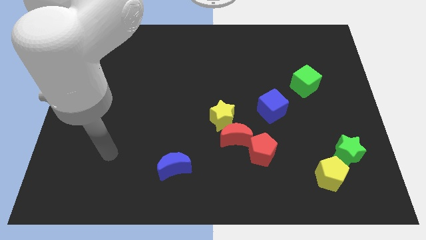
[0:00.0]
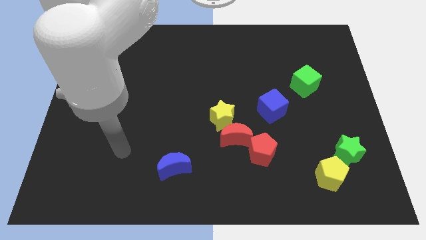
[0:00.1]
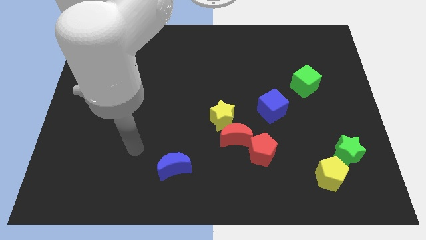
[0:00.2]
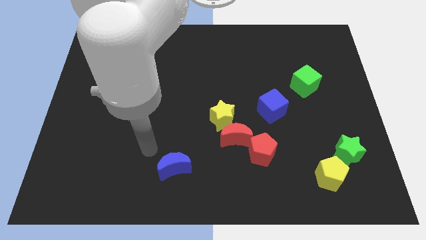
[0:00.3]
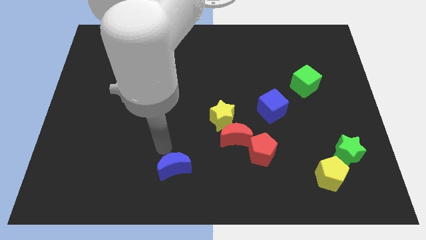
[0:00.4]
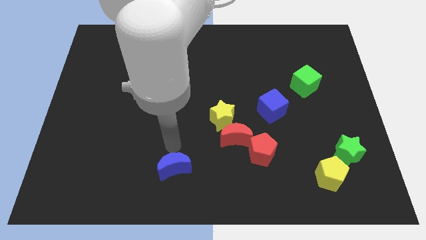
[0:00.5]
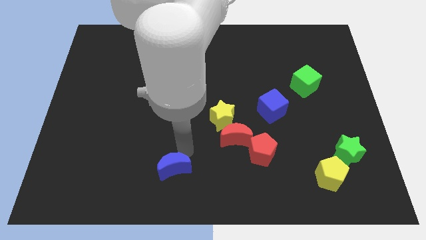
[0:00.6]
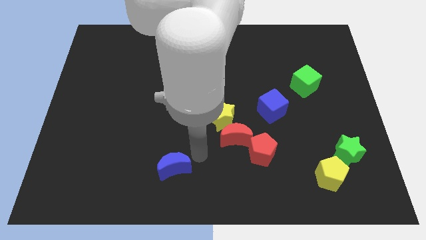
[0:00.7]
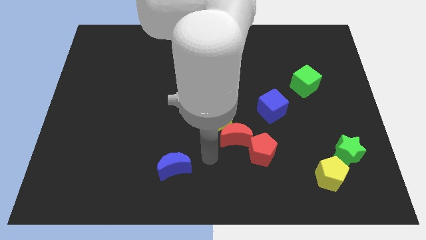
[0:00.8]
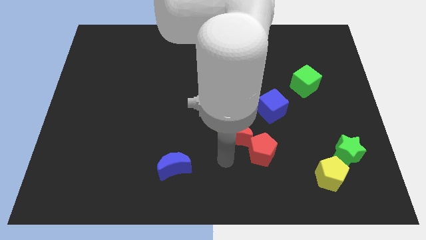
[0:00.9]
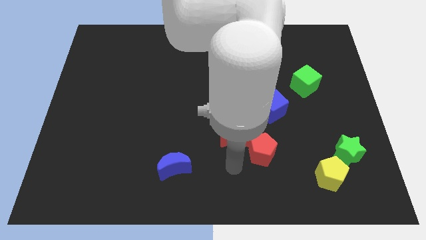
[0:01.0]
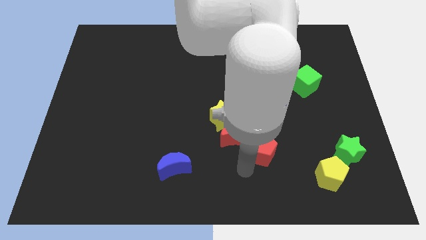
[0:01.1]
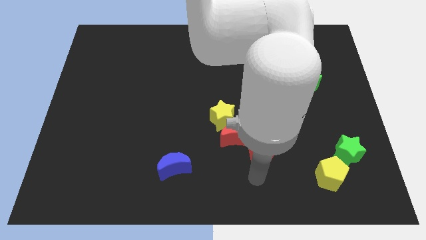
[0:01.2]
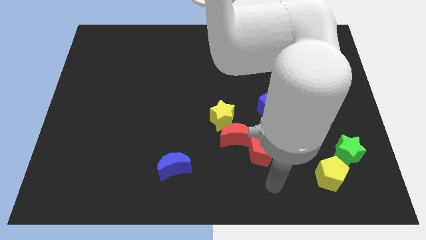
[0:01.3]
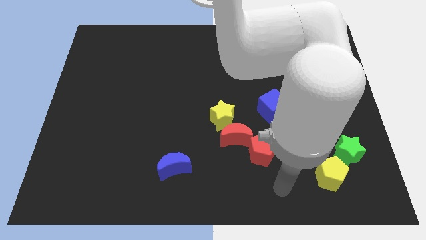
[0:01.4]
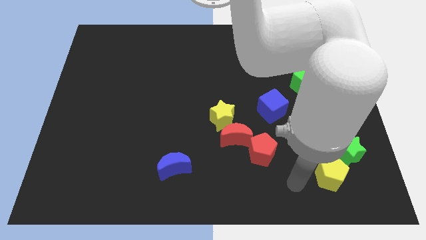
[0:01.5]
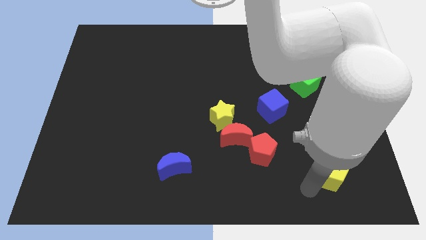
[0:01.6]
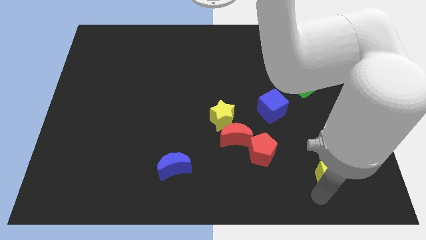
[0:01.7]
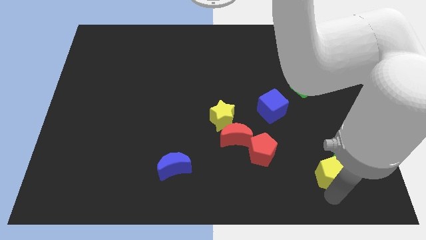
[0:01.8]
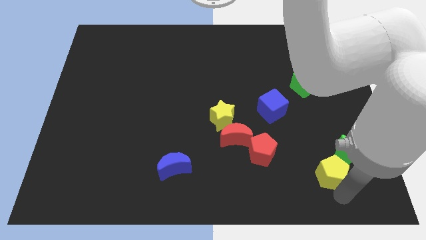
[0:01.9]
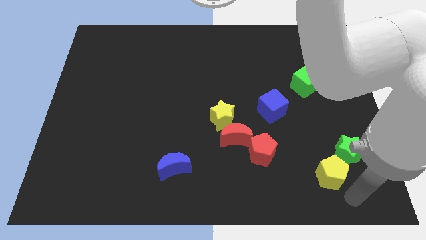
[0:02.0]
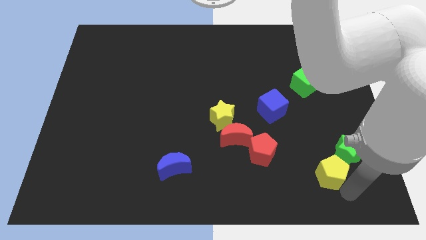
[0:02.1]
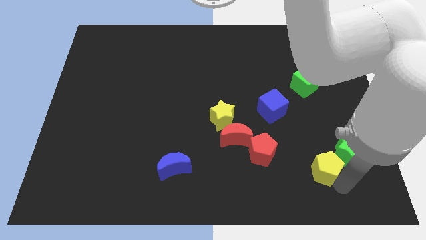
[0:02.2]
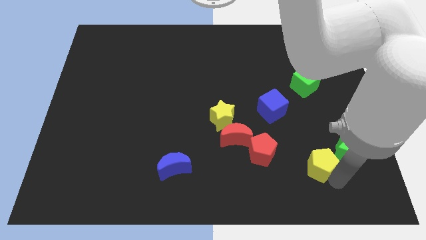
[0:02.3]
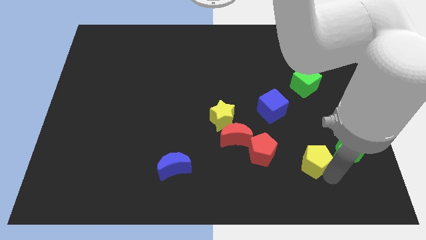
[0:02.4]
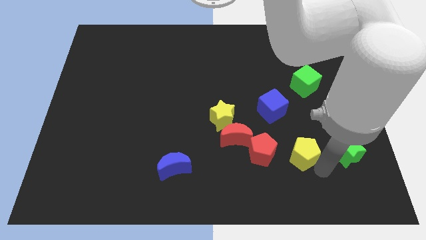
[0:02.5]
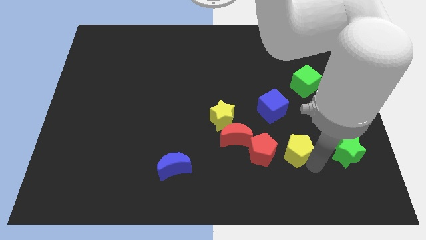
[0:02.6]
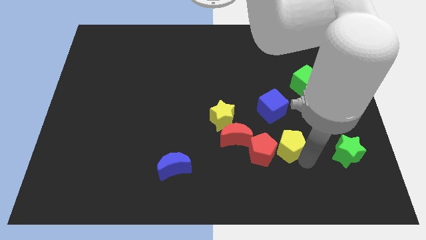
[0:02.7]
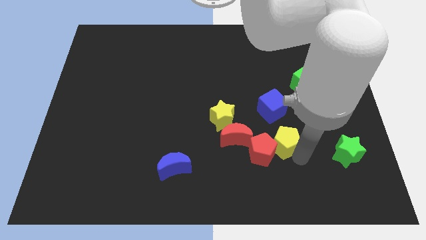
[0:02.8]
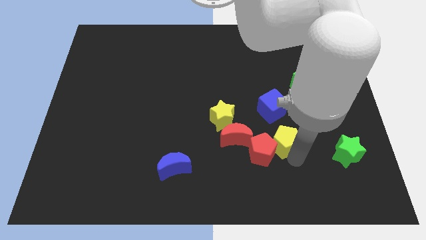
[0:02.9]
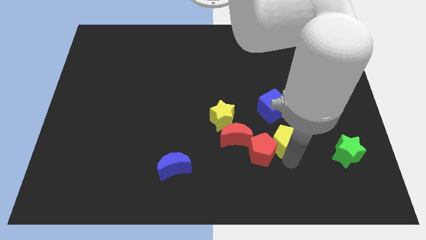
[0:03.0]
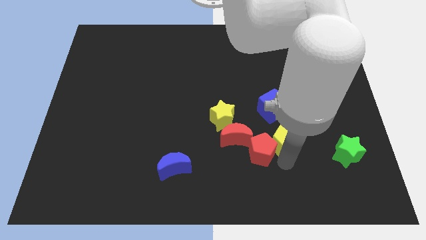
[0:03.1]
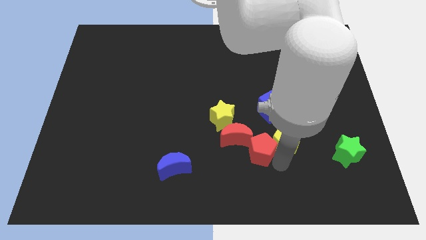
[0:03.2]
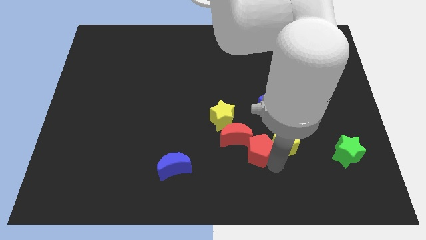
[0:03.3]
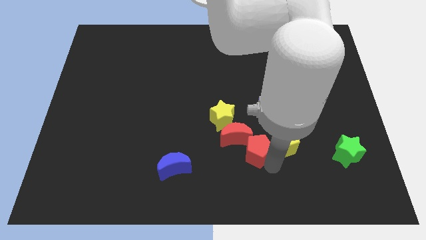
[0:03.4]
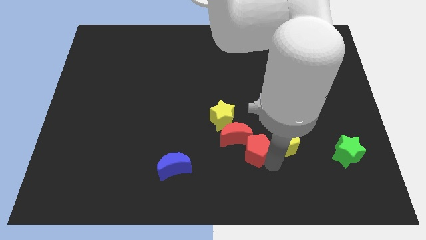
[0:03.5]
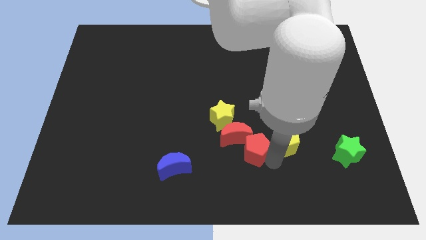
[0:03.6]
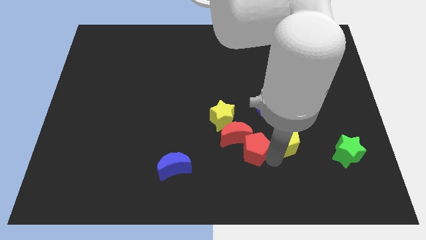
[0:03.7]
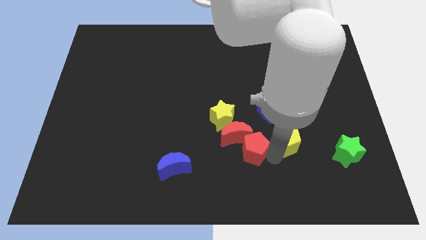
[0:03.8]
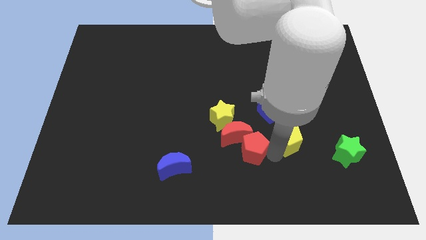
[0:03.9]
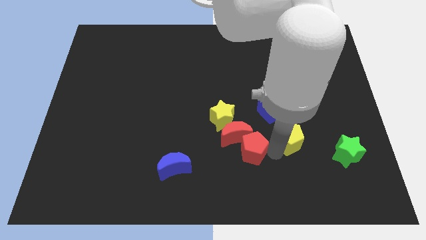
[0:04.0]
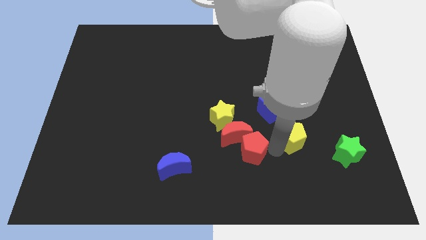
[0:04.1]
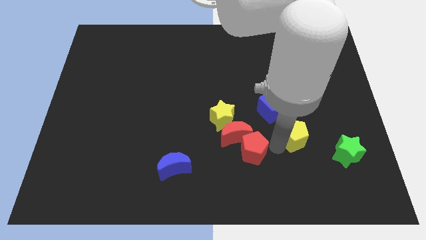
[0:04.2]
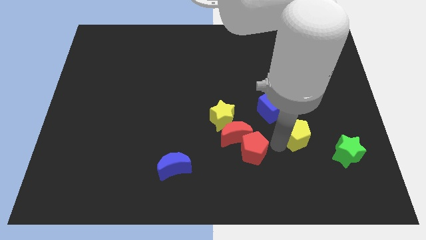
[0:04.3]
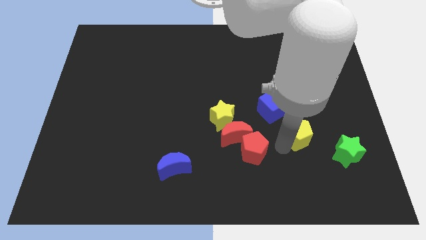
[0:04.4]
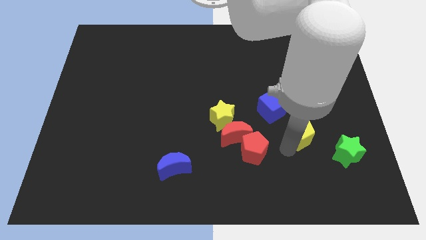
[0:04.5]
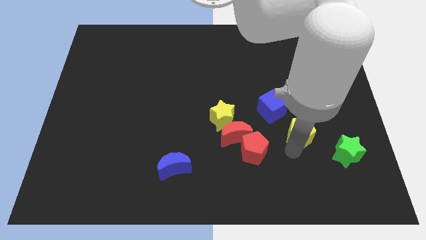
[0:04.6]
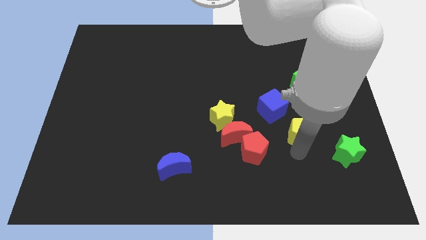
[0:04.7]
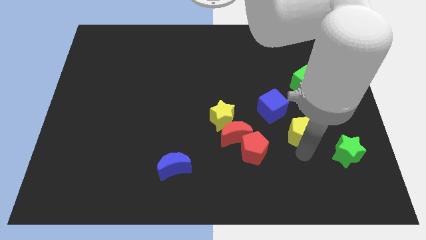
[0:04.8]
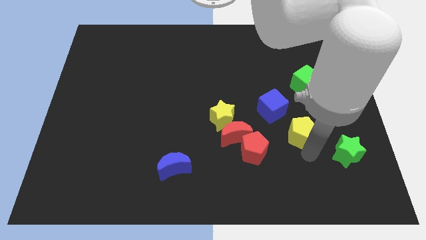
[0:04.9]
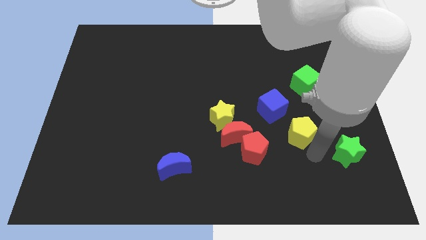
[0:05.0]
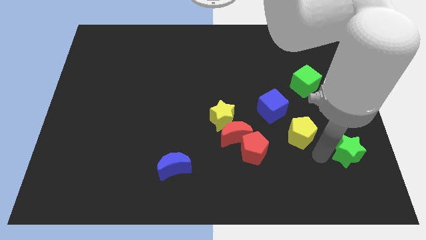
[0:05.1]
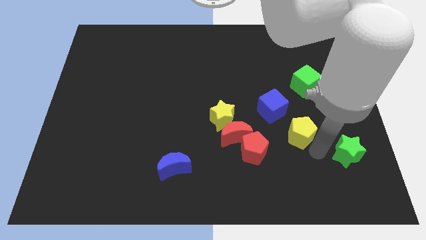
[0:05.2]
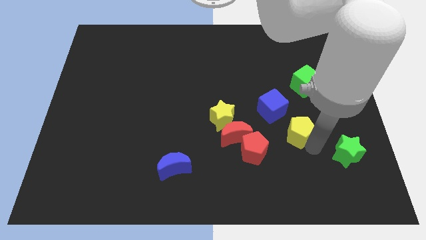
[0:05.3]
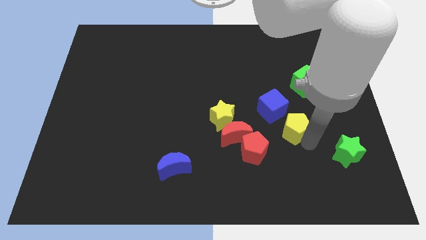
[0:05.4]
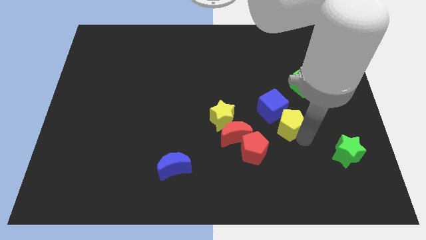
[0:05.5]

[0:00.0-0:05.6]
push the yellow pentagon right of the yellow star

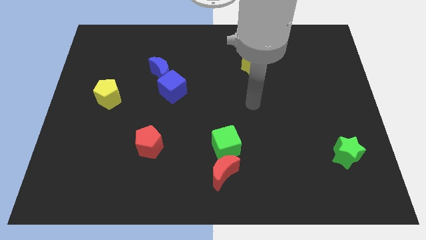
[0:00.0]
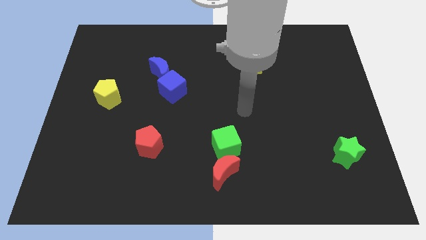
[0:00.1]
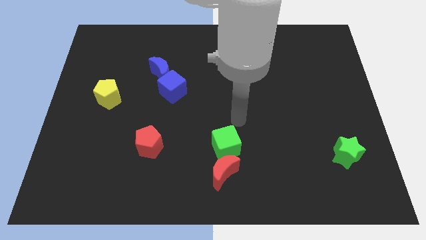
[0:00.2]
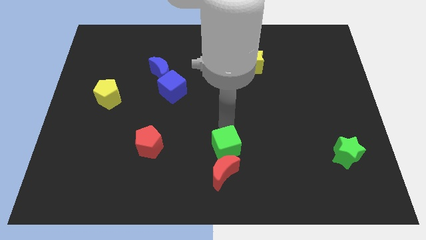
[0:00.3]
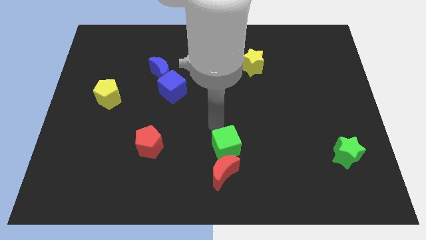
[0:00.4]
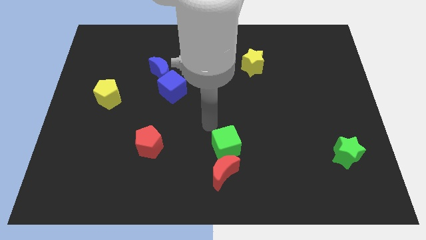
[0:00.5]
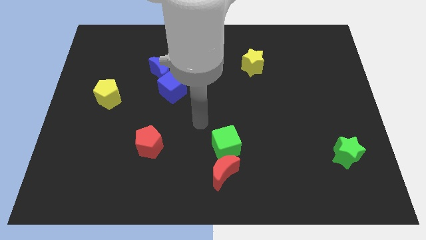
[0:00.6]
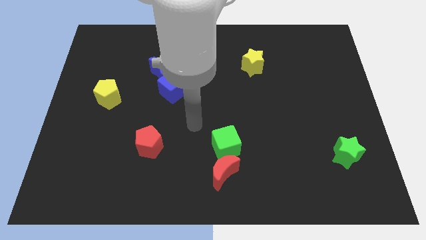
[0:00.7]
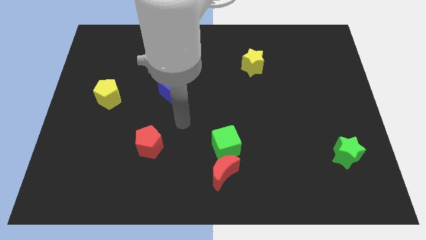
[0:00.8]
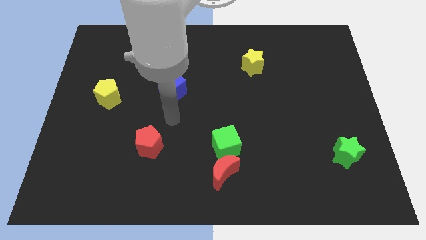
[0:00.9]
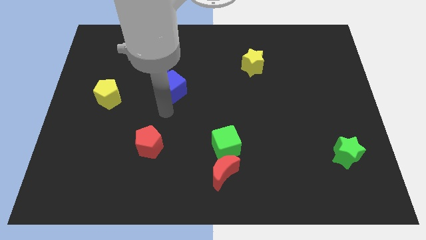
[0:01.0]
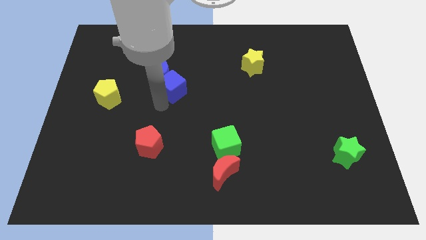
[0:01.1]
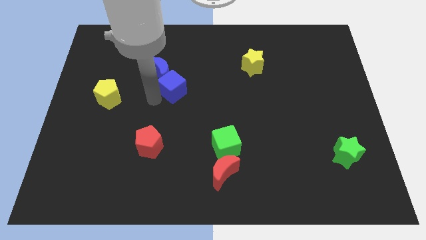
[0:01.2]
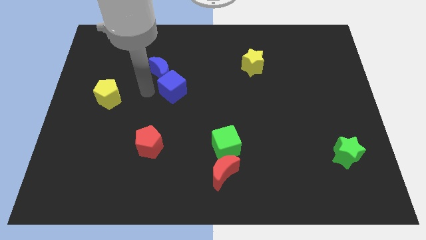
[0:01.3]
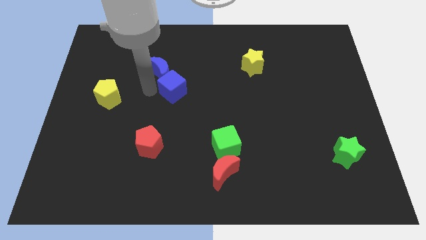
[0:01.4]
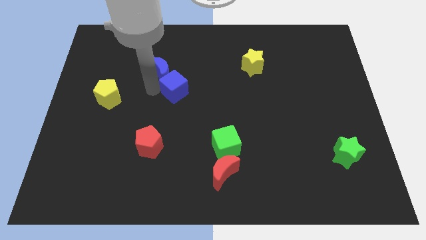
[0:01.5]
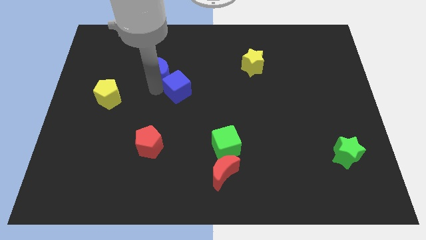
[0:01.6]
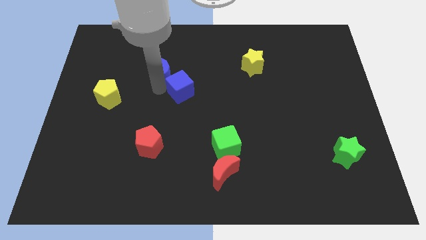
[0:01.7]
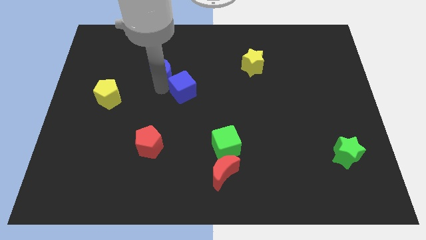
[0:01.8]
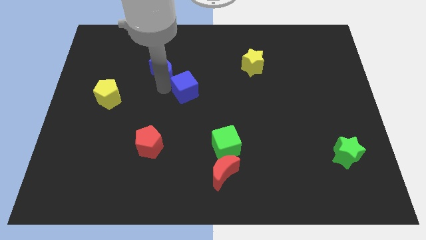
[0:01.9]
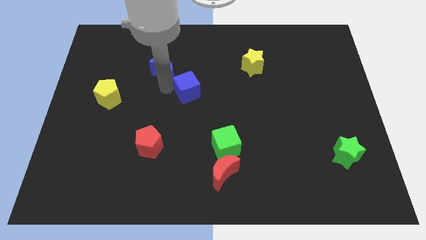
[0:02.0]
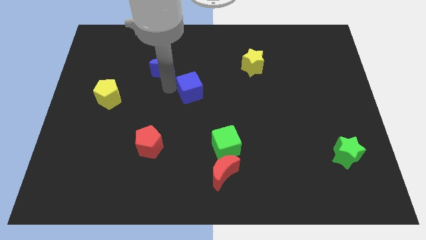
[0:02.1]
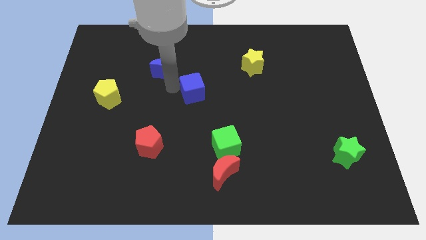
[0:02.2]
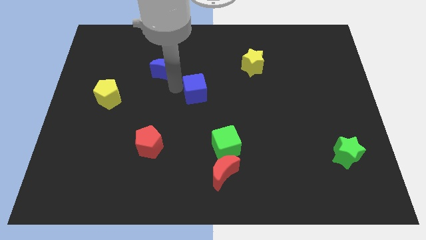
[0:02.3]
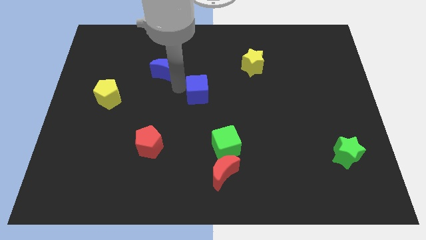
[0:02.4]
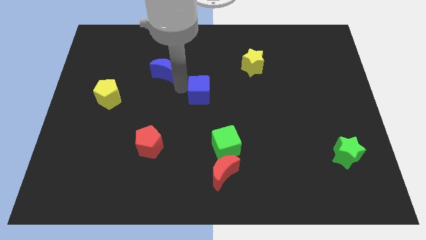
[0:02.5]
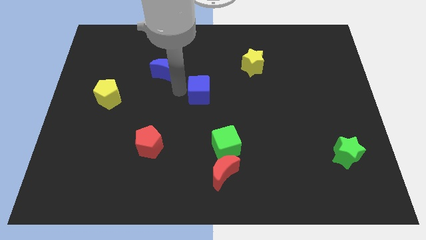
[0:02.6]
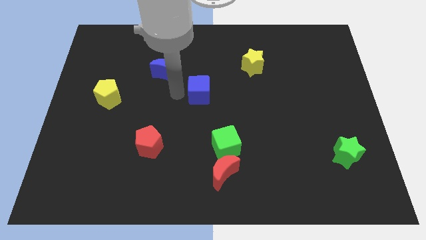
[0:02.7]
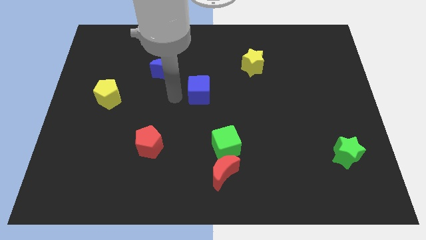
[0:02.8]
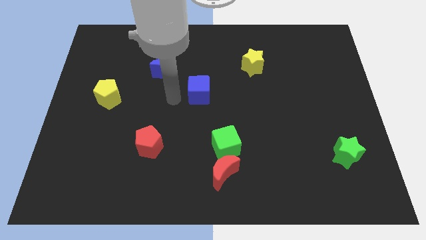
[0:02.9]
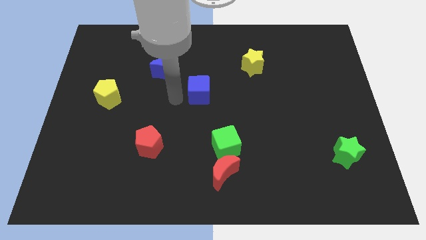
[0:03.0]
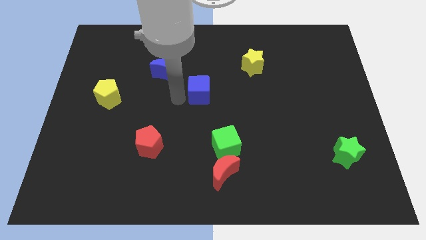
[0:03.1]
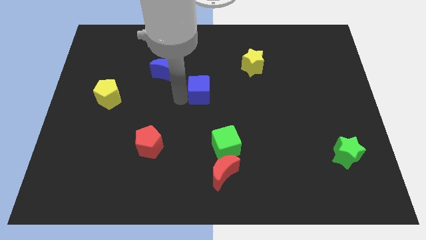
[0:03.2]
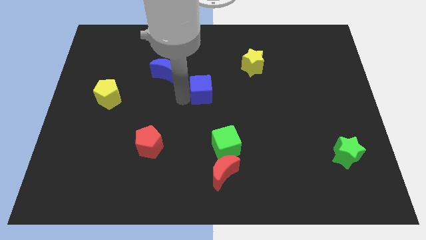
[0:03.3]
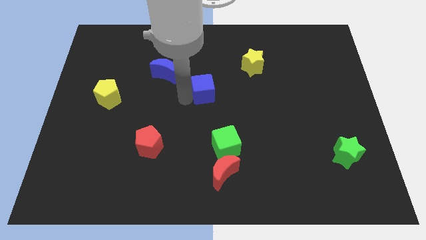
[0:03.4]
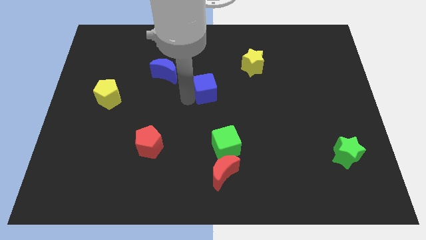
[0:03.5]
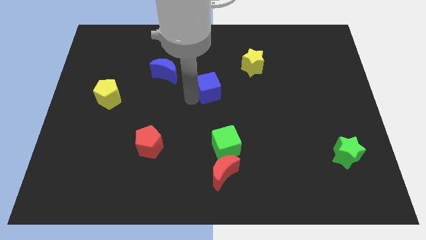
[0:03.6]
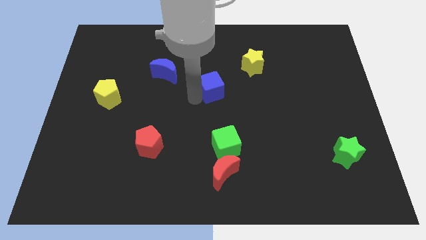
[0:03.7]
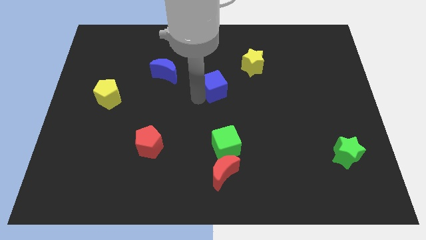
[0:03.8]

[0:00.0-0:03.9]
slide the blue cube diagonally down and to the left of the yellow star
